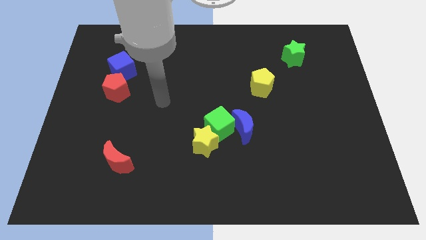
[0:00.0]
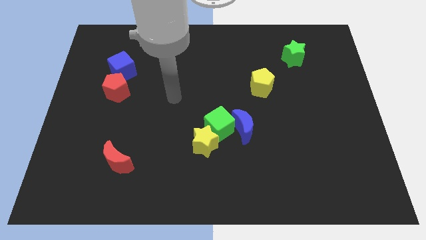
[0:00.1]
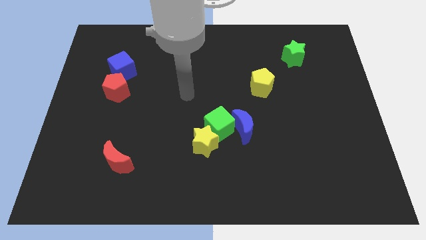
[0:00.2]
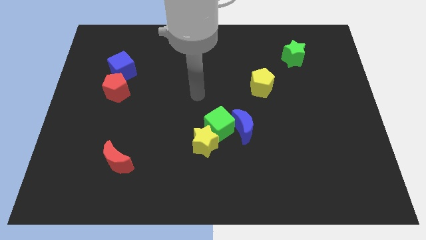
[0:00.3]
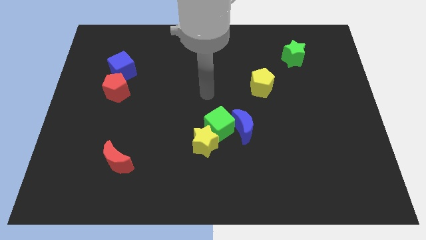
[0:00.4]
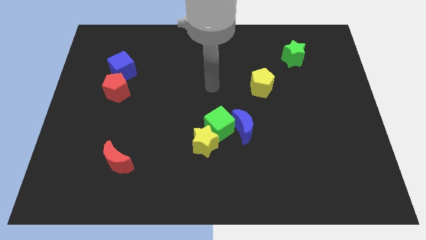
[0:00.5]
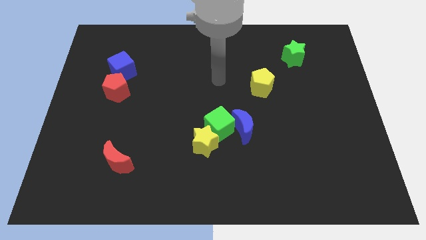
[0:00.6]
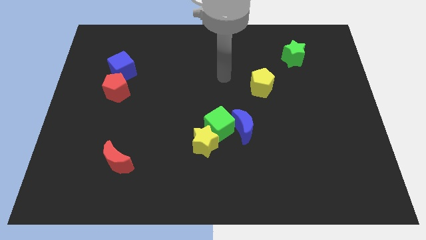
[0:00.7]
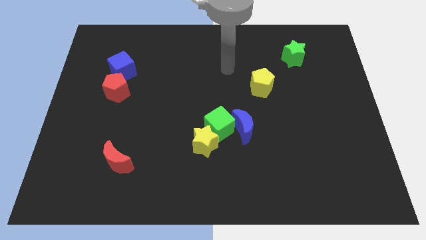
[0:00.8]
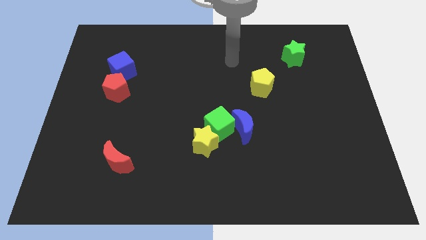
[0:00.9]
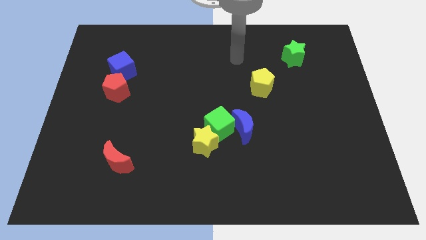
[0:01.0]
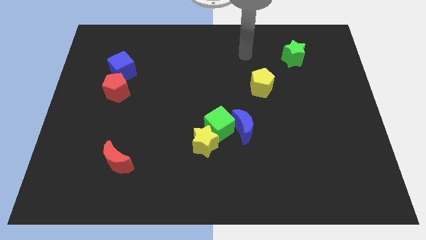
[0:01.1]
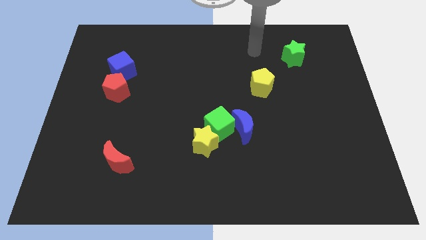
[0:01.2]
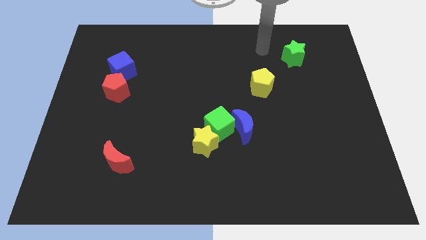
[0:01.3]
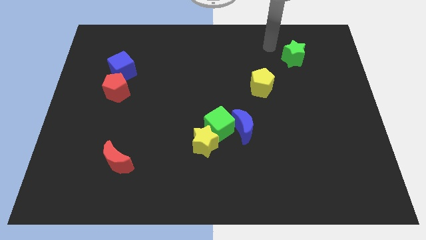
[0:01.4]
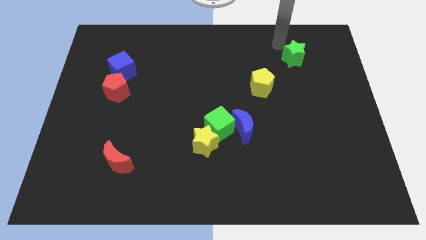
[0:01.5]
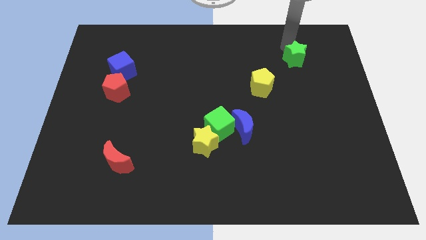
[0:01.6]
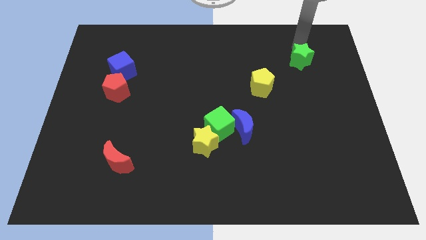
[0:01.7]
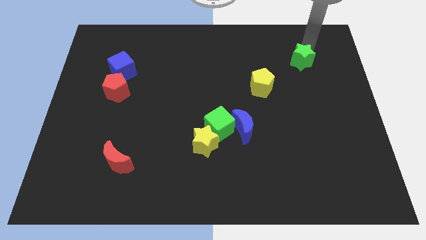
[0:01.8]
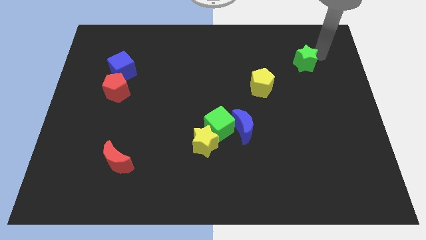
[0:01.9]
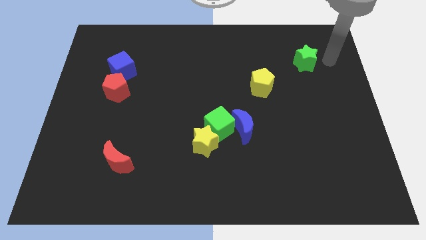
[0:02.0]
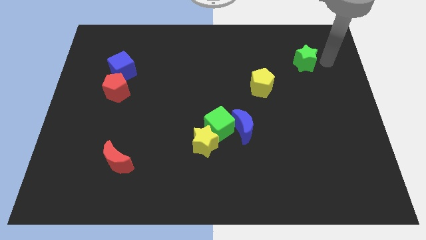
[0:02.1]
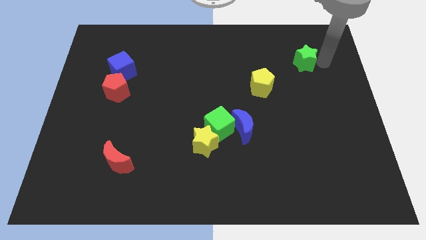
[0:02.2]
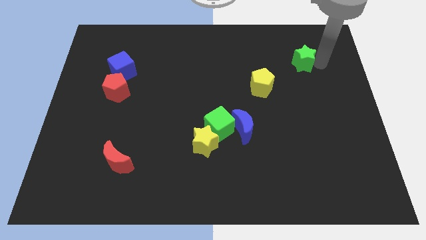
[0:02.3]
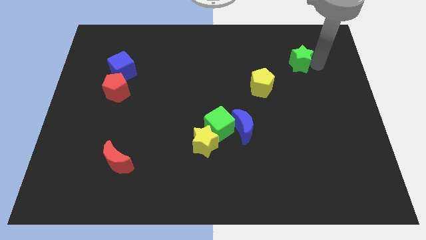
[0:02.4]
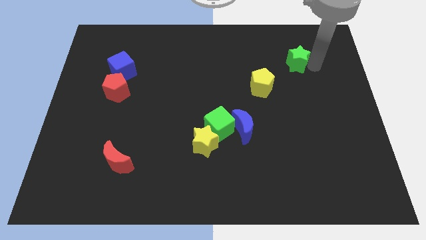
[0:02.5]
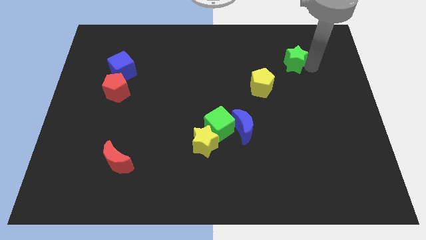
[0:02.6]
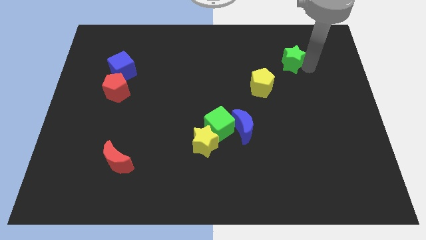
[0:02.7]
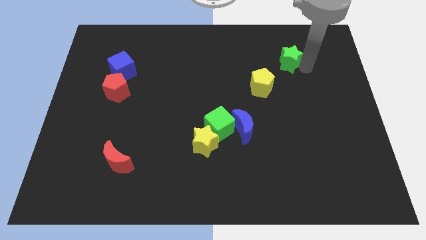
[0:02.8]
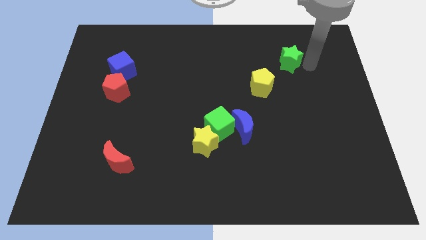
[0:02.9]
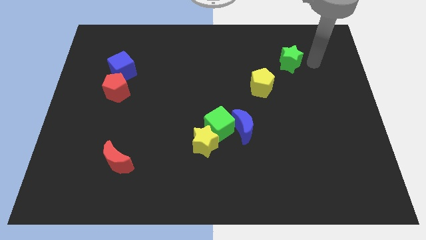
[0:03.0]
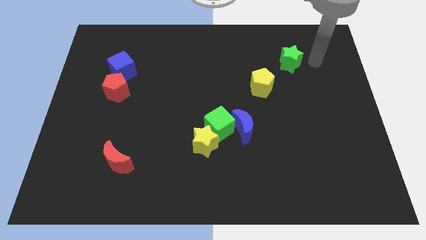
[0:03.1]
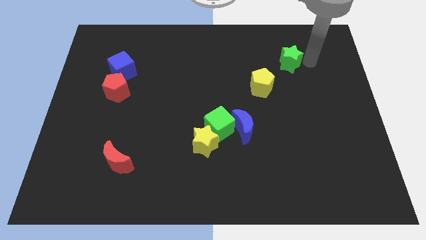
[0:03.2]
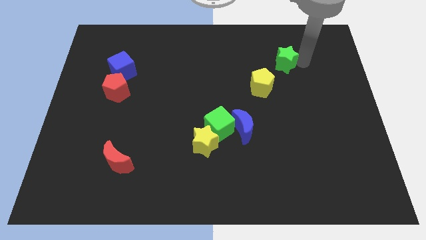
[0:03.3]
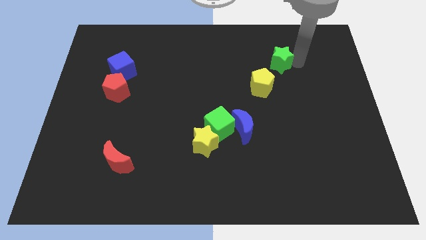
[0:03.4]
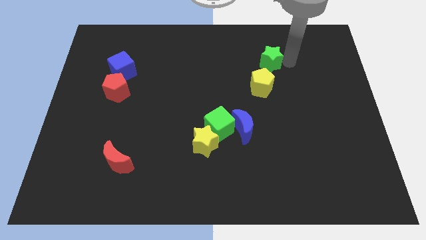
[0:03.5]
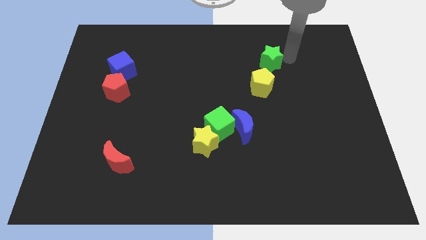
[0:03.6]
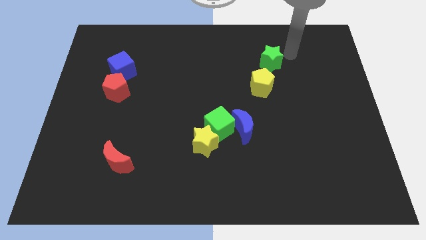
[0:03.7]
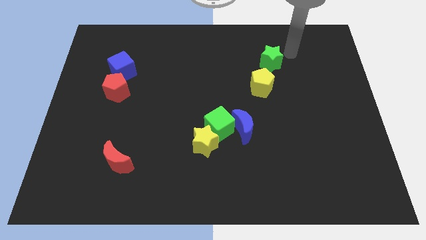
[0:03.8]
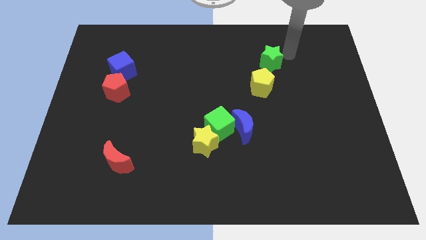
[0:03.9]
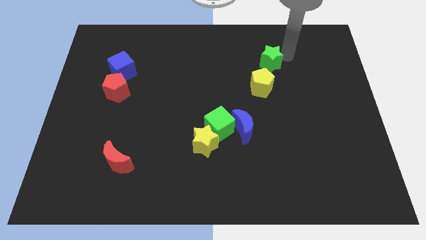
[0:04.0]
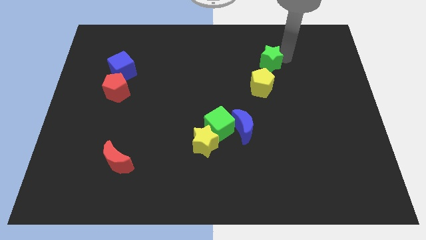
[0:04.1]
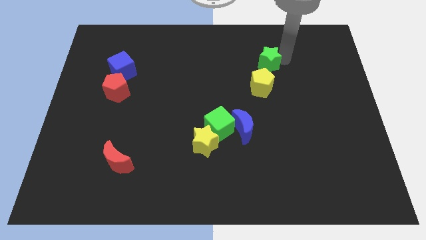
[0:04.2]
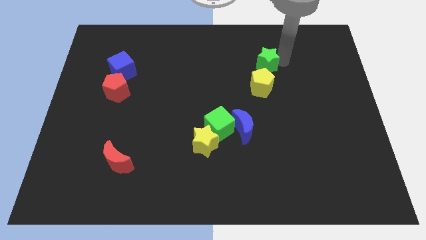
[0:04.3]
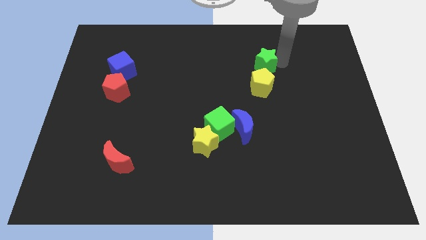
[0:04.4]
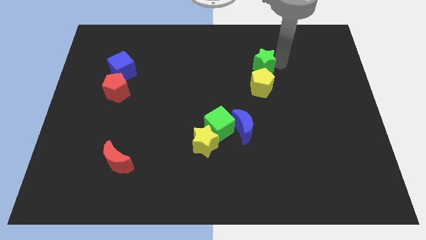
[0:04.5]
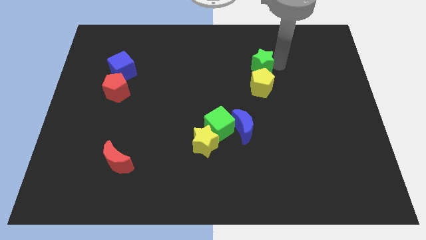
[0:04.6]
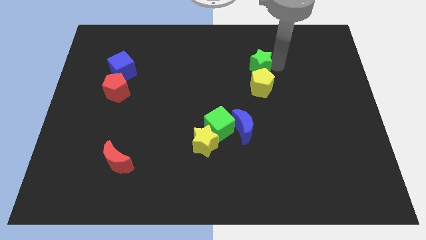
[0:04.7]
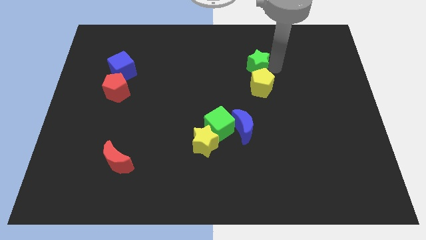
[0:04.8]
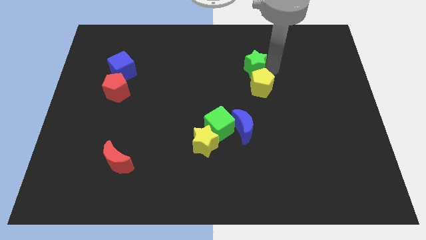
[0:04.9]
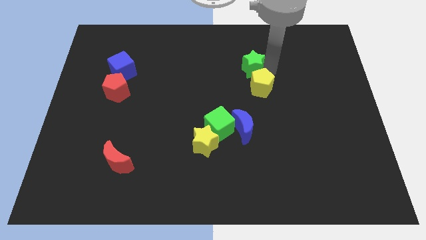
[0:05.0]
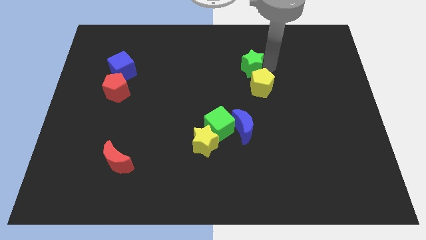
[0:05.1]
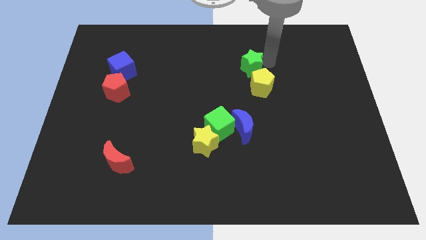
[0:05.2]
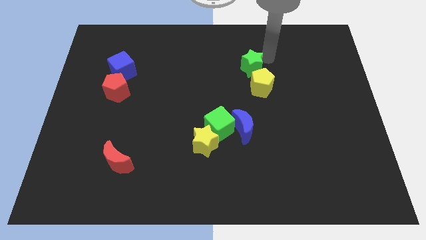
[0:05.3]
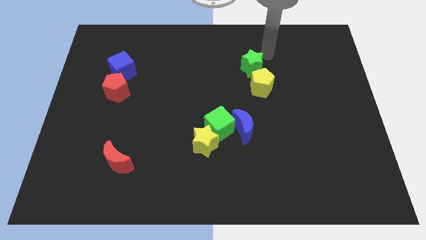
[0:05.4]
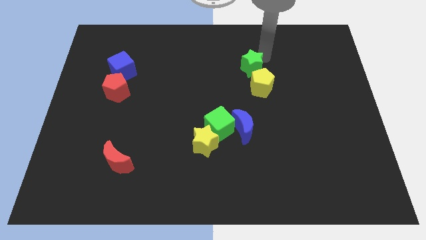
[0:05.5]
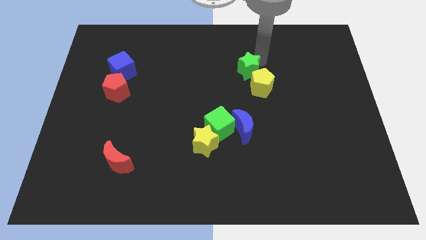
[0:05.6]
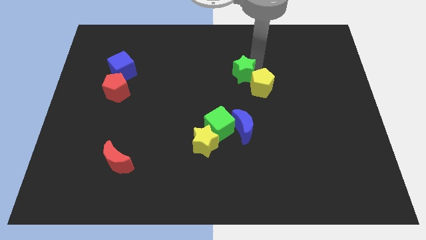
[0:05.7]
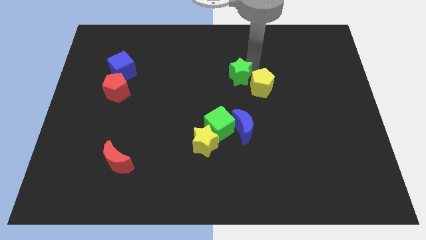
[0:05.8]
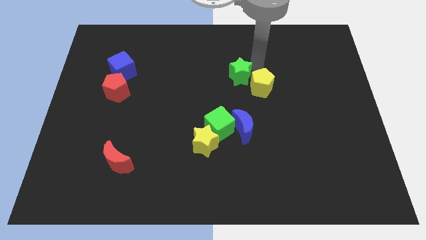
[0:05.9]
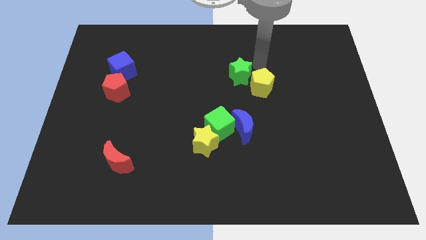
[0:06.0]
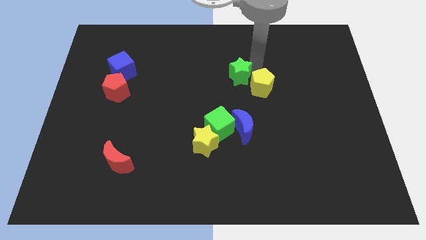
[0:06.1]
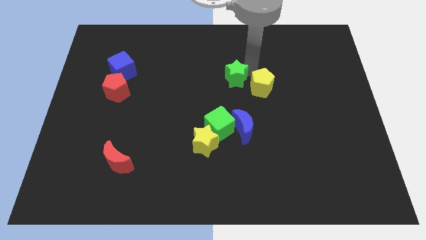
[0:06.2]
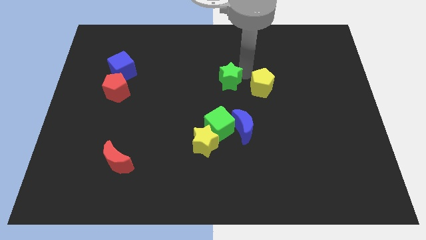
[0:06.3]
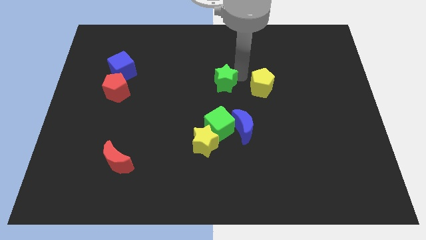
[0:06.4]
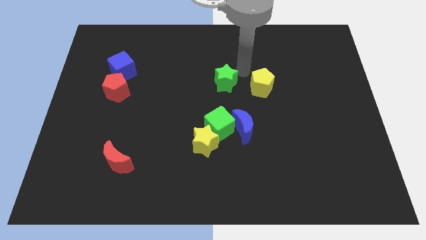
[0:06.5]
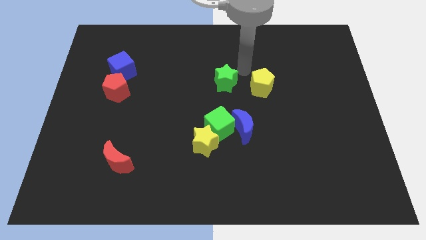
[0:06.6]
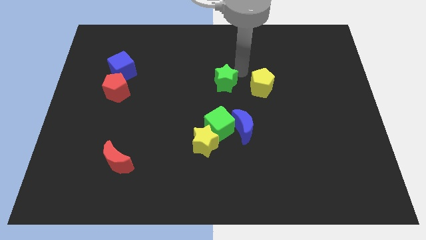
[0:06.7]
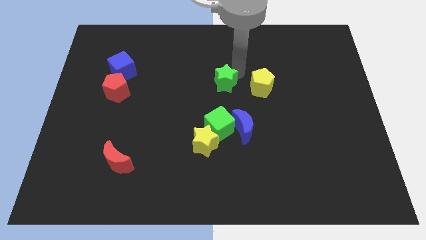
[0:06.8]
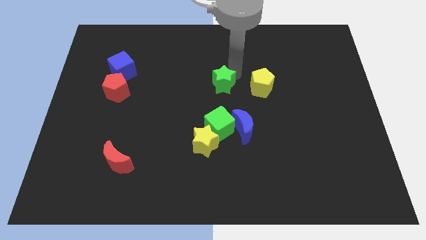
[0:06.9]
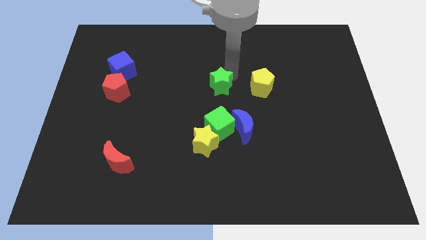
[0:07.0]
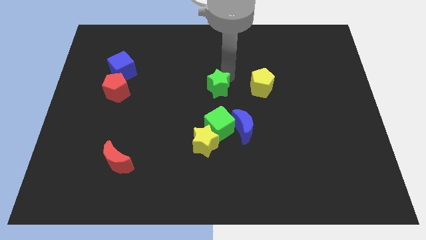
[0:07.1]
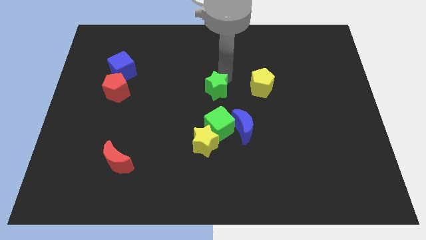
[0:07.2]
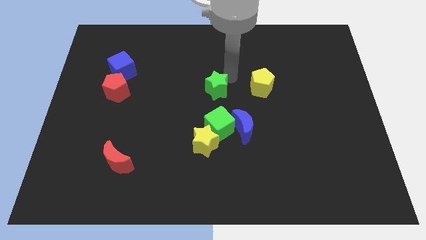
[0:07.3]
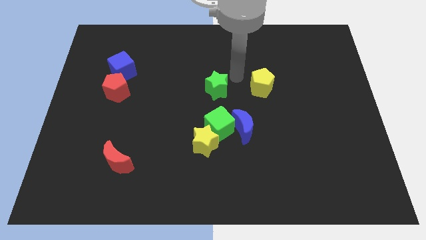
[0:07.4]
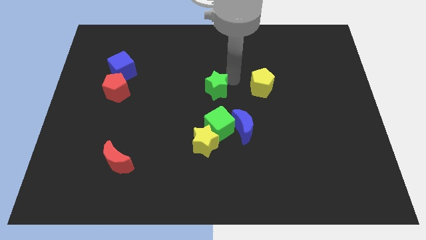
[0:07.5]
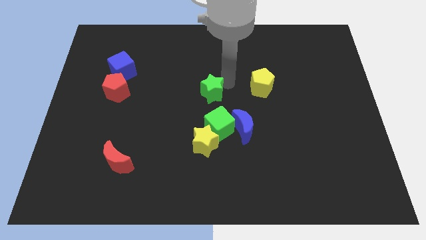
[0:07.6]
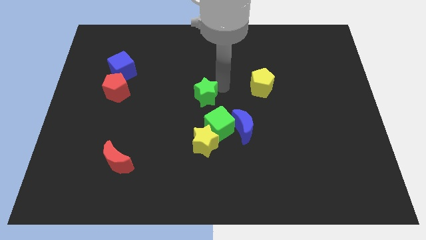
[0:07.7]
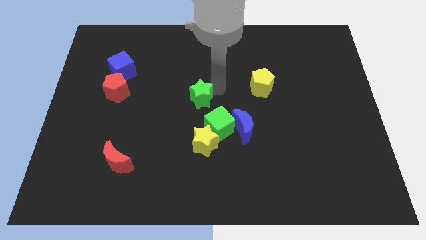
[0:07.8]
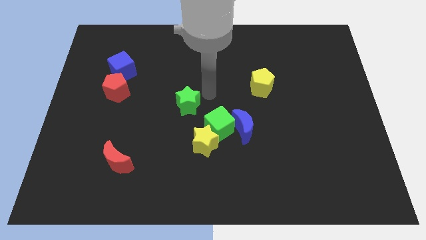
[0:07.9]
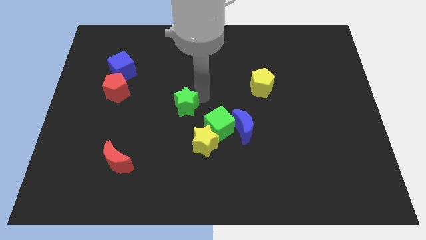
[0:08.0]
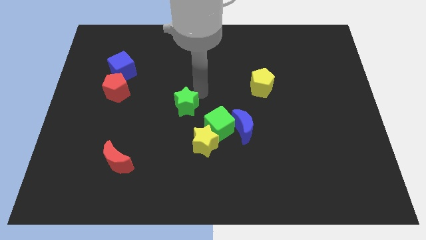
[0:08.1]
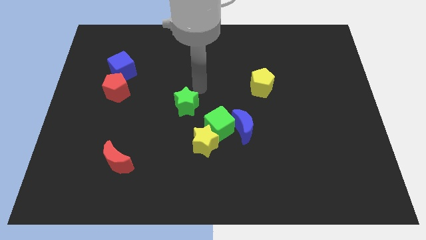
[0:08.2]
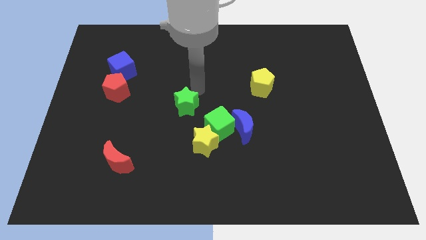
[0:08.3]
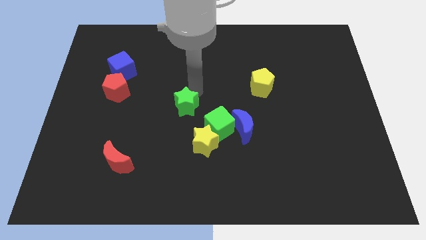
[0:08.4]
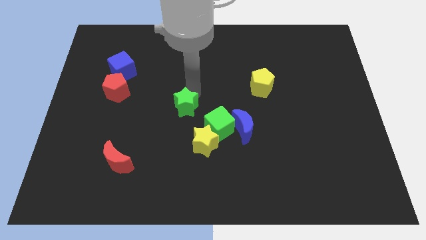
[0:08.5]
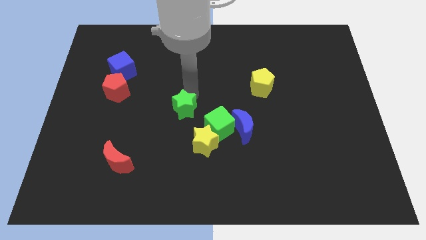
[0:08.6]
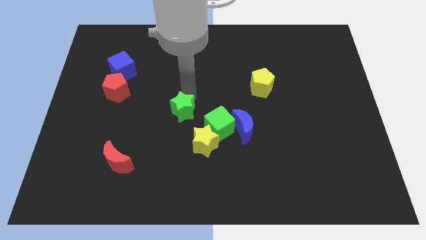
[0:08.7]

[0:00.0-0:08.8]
push the green star just left of the green cube
